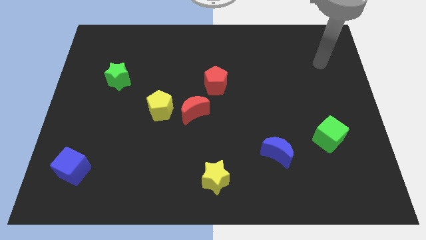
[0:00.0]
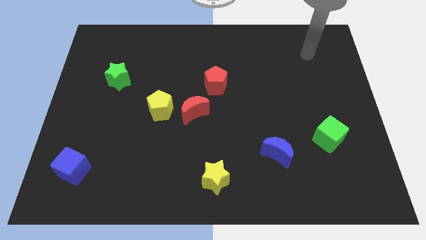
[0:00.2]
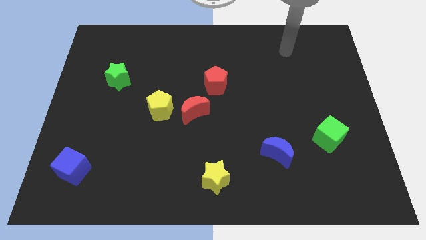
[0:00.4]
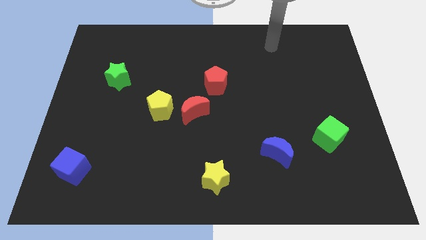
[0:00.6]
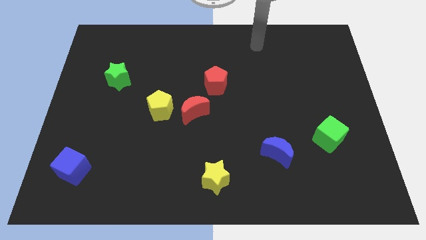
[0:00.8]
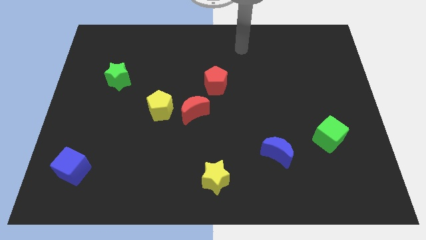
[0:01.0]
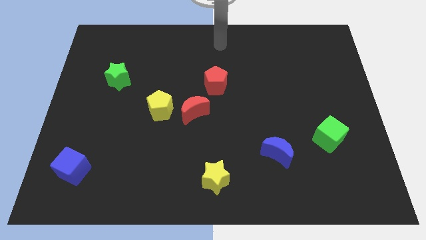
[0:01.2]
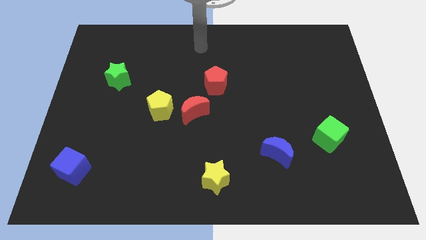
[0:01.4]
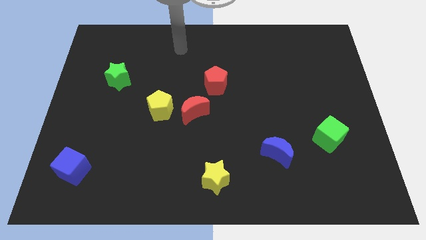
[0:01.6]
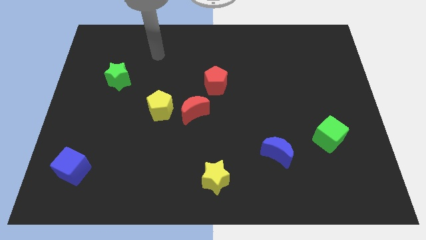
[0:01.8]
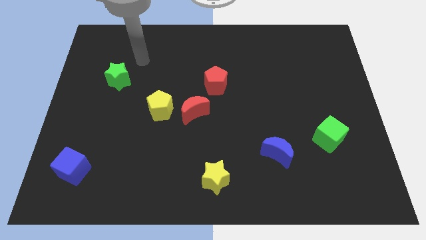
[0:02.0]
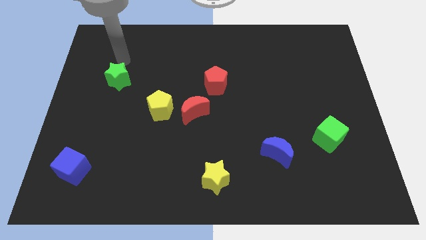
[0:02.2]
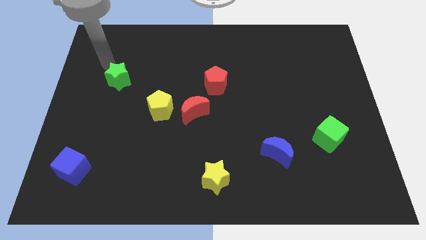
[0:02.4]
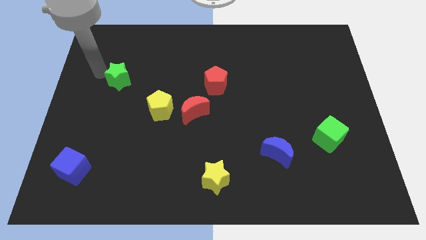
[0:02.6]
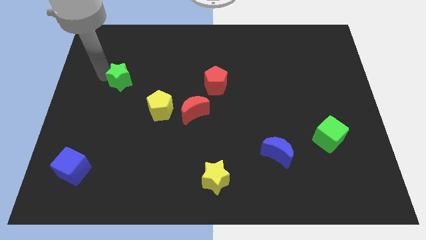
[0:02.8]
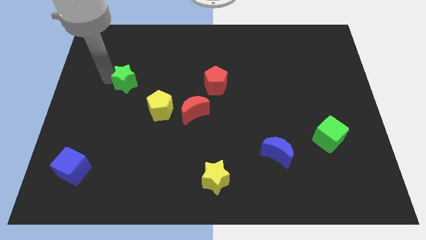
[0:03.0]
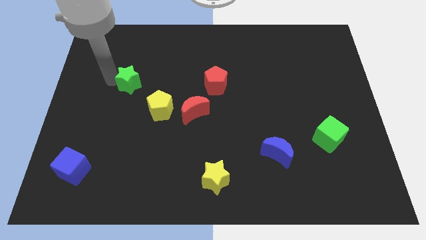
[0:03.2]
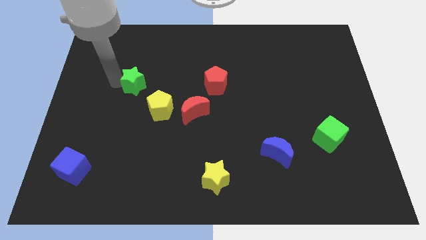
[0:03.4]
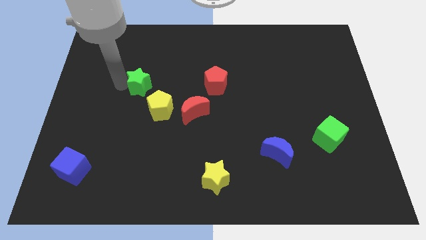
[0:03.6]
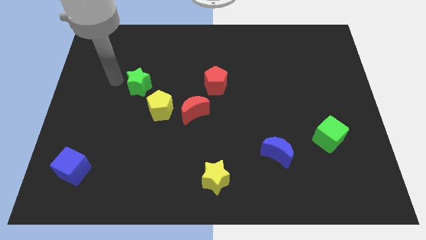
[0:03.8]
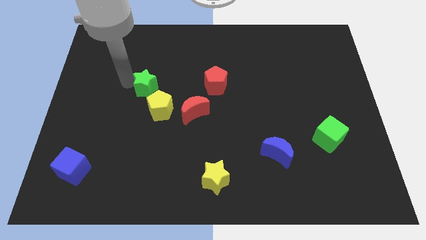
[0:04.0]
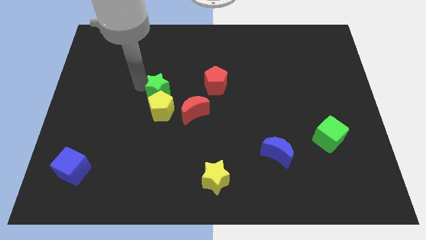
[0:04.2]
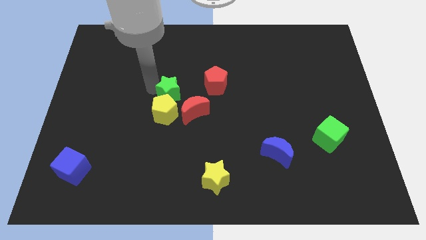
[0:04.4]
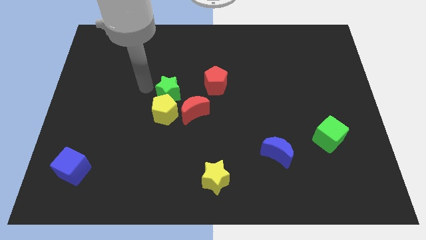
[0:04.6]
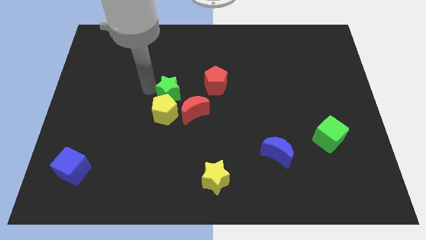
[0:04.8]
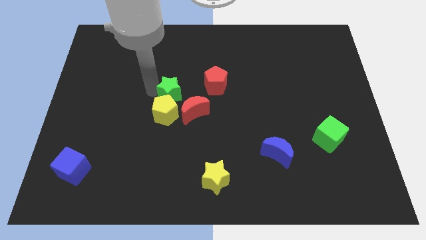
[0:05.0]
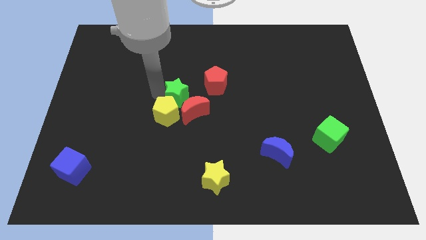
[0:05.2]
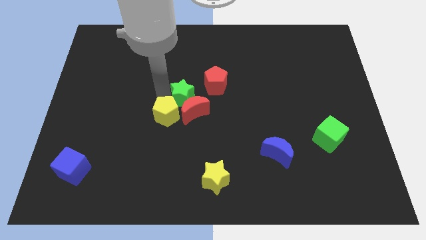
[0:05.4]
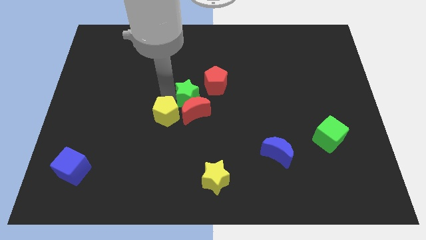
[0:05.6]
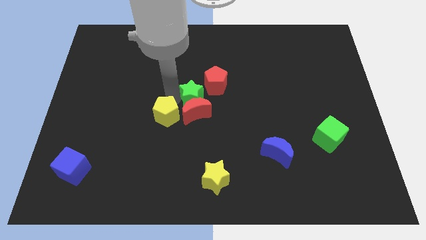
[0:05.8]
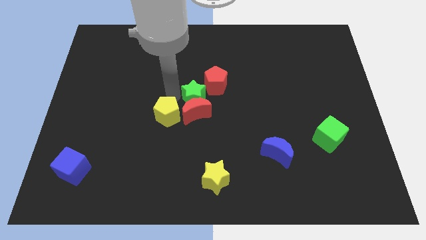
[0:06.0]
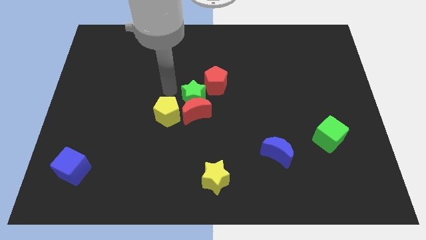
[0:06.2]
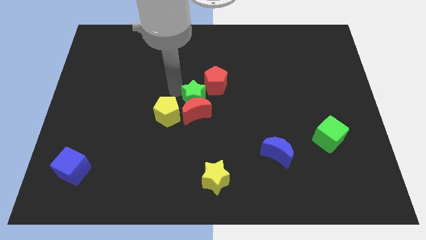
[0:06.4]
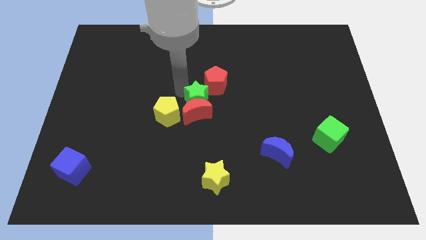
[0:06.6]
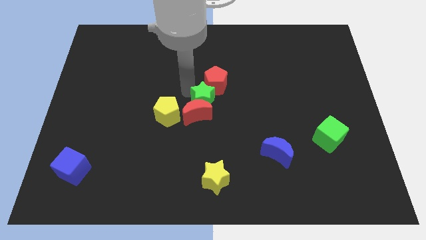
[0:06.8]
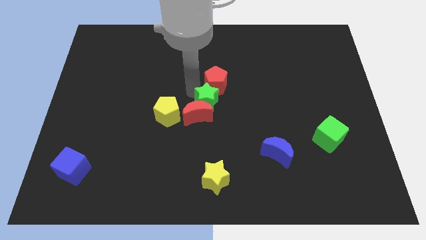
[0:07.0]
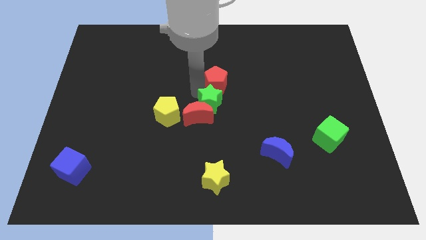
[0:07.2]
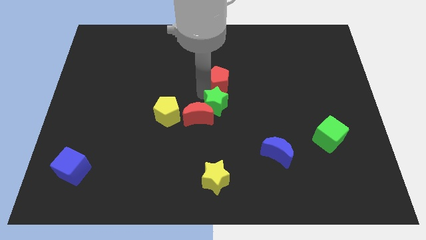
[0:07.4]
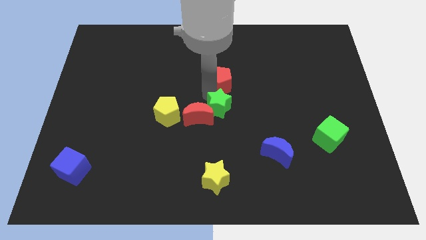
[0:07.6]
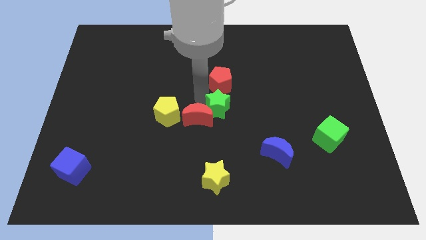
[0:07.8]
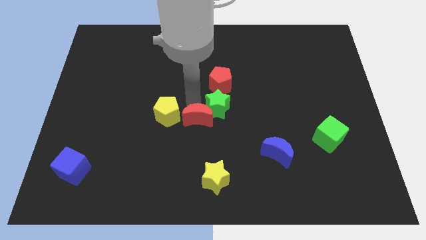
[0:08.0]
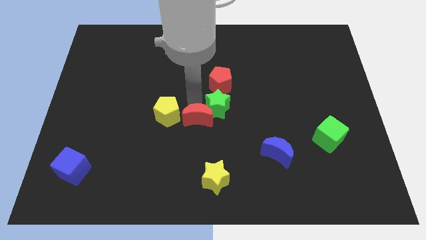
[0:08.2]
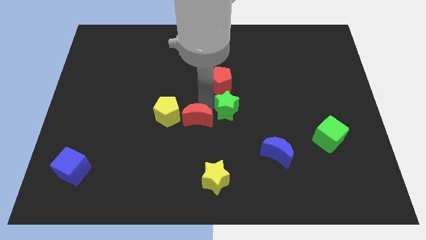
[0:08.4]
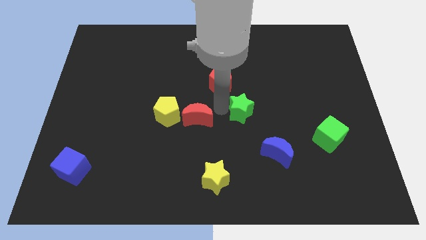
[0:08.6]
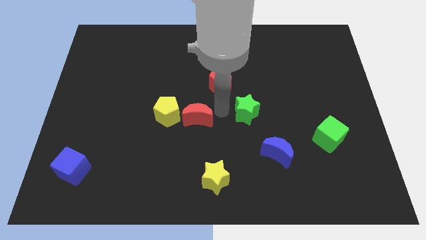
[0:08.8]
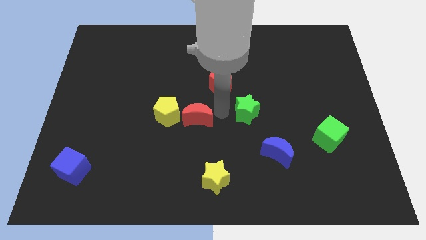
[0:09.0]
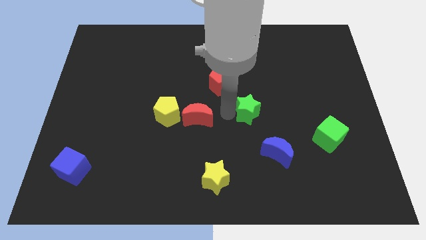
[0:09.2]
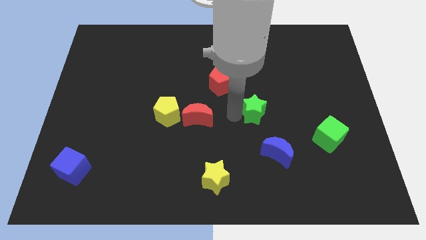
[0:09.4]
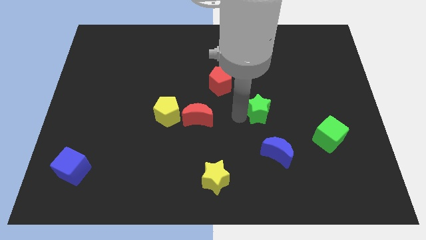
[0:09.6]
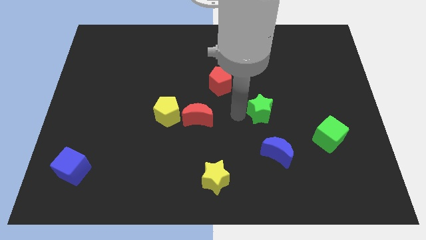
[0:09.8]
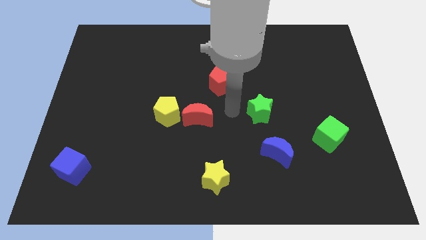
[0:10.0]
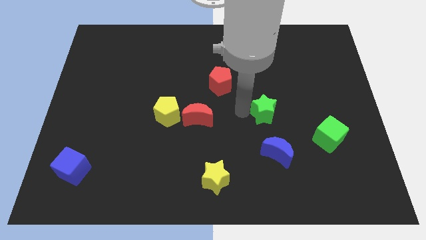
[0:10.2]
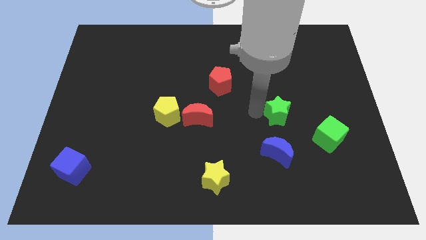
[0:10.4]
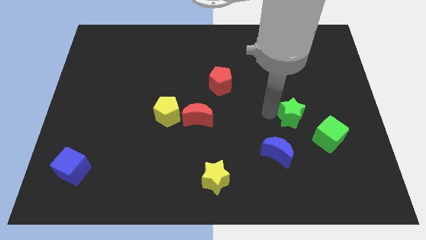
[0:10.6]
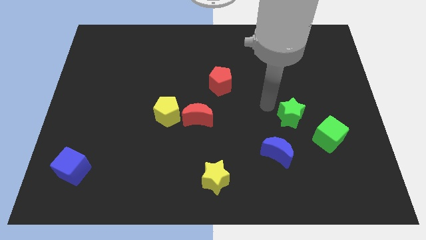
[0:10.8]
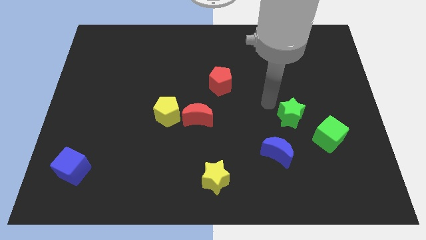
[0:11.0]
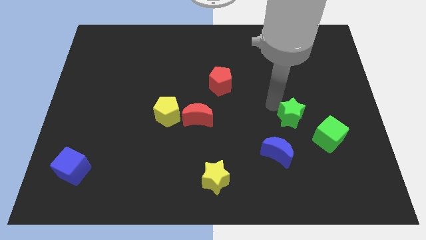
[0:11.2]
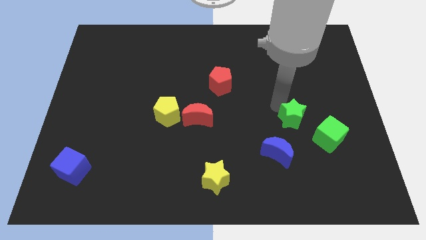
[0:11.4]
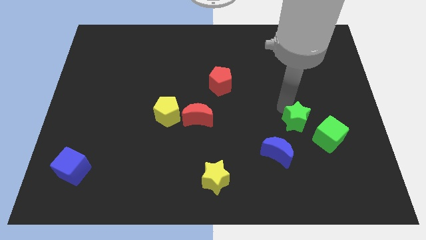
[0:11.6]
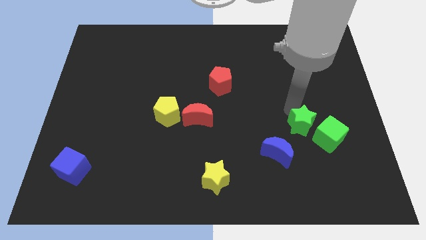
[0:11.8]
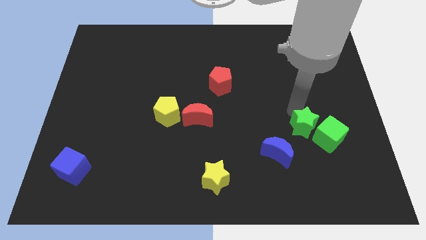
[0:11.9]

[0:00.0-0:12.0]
slide the green star close to the green cube

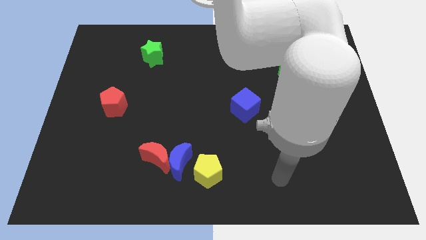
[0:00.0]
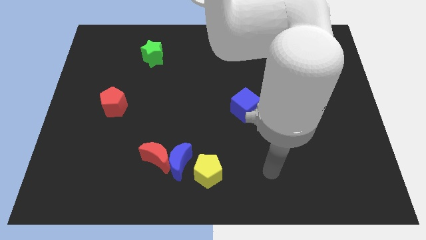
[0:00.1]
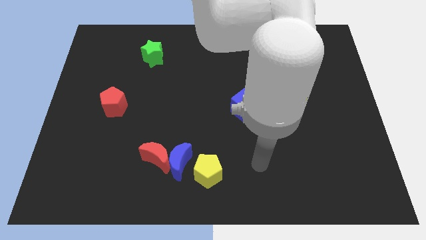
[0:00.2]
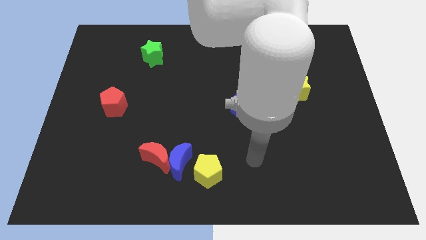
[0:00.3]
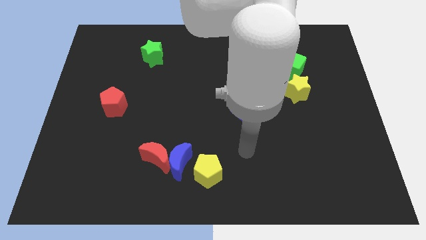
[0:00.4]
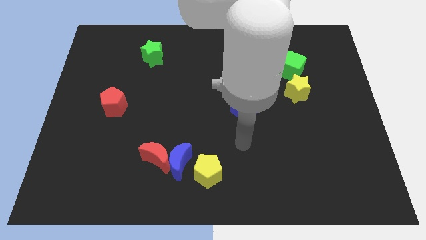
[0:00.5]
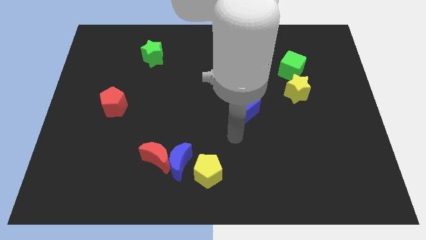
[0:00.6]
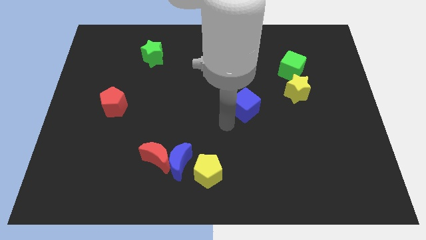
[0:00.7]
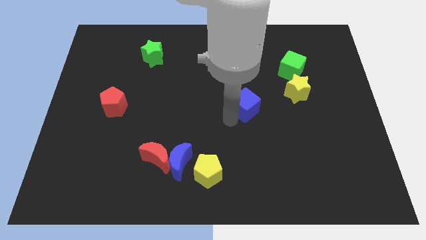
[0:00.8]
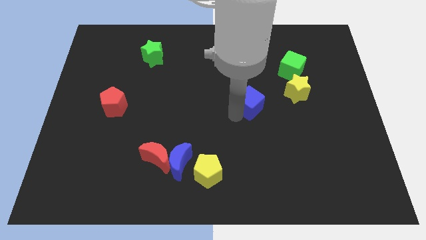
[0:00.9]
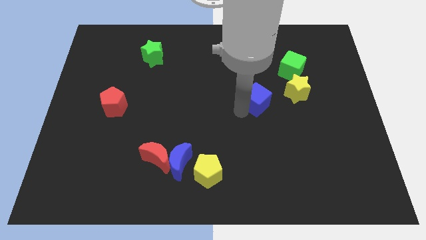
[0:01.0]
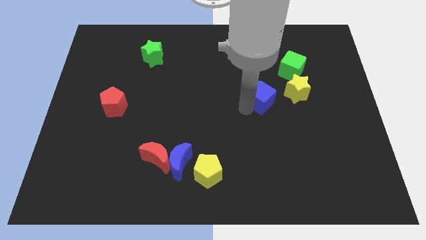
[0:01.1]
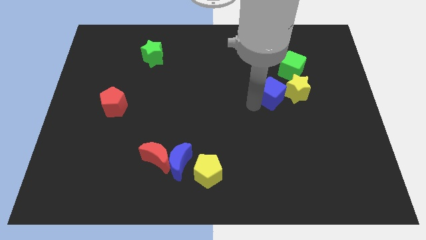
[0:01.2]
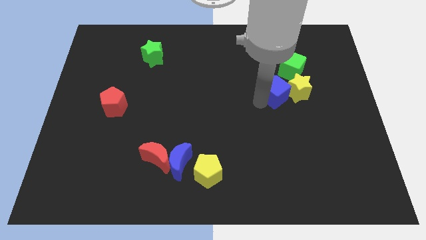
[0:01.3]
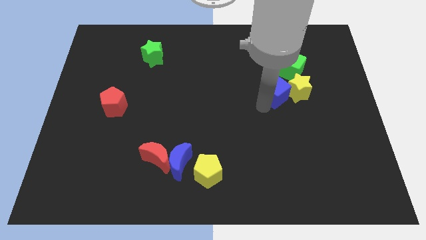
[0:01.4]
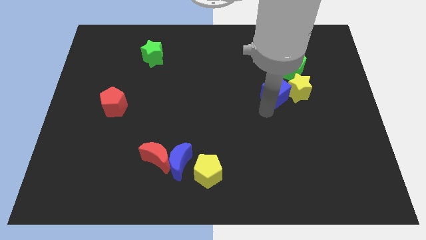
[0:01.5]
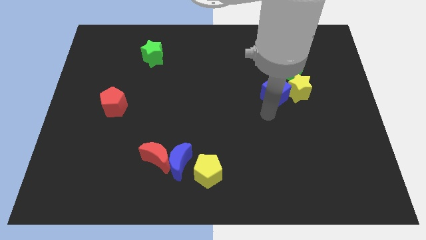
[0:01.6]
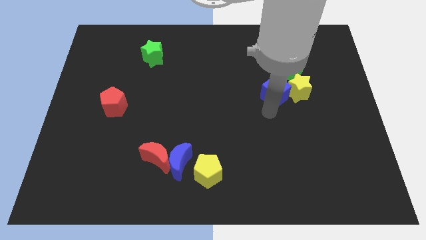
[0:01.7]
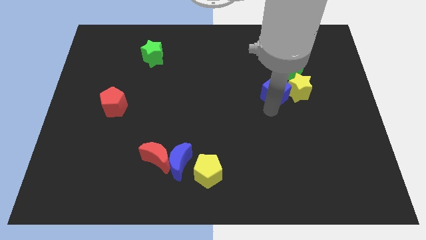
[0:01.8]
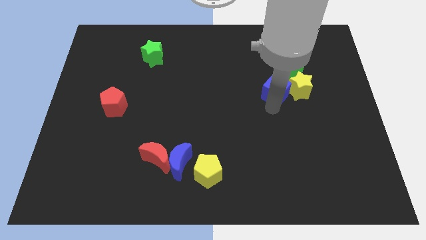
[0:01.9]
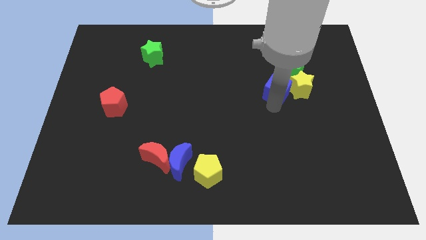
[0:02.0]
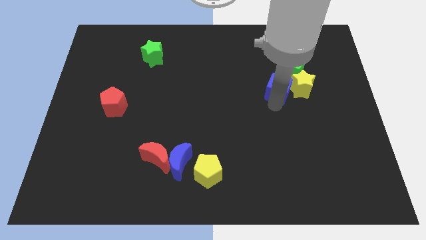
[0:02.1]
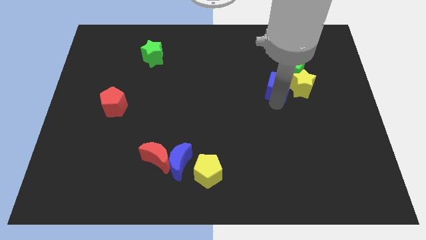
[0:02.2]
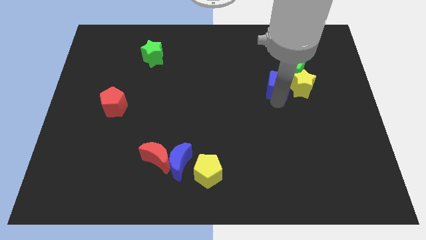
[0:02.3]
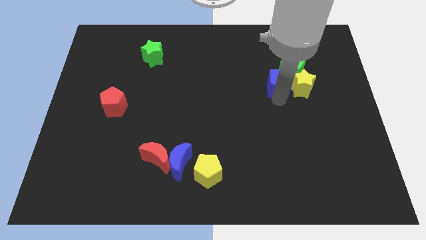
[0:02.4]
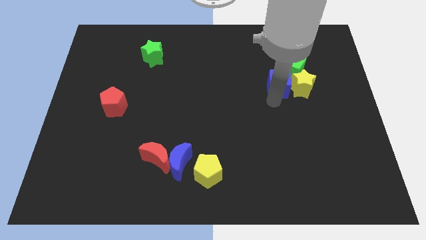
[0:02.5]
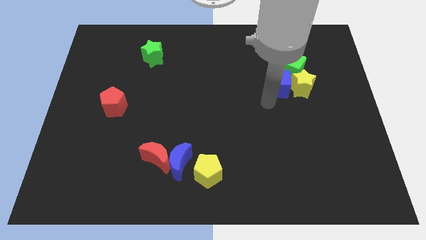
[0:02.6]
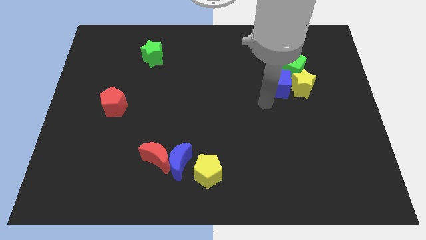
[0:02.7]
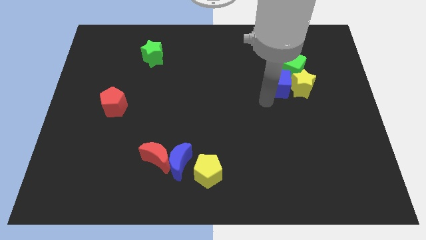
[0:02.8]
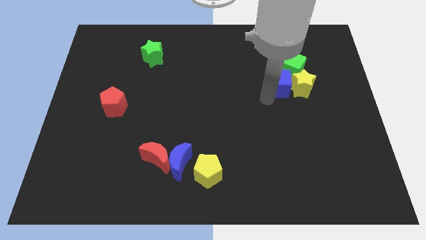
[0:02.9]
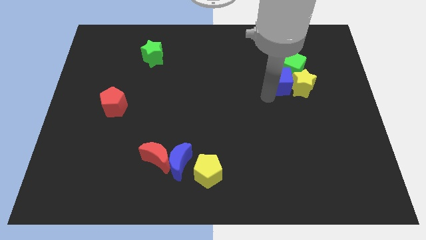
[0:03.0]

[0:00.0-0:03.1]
put the blue cube close to the green cube
